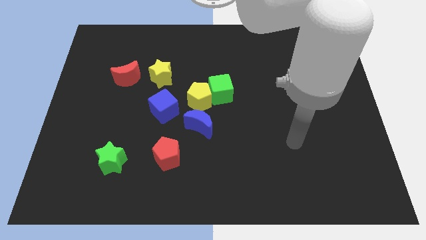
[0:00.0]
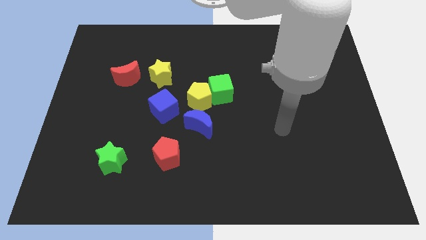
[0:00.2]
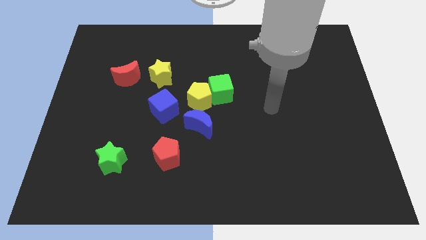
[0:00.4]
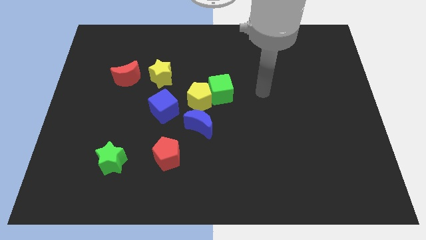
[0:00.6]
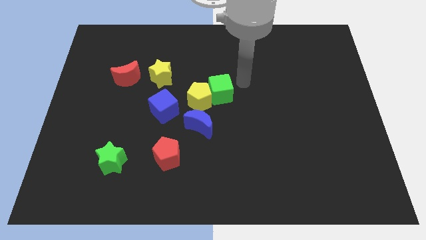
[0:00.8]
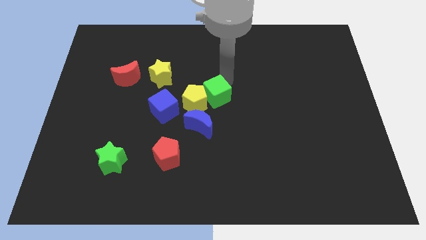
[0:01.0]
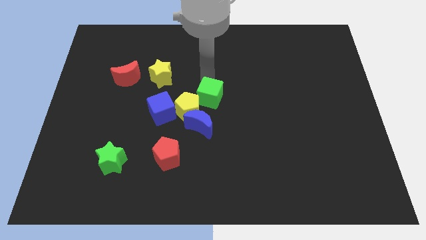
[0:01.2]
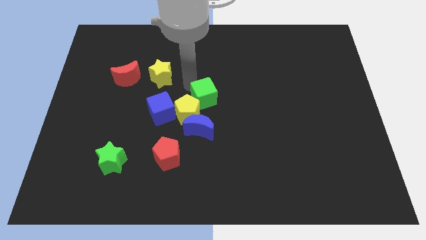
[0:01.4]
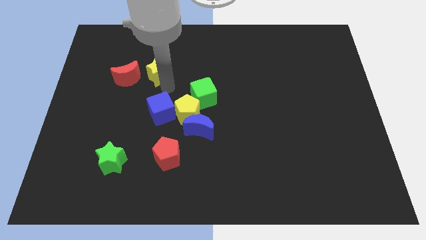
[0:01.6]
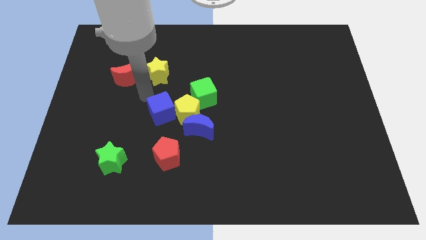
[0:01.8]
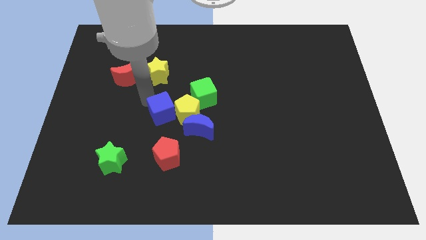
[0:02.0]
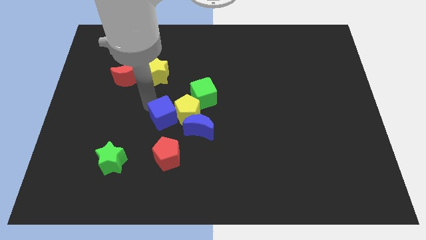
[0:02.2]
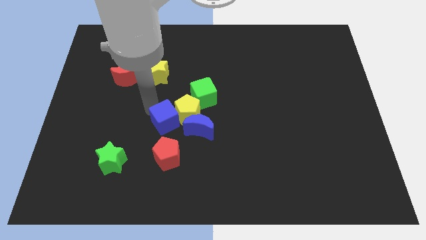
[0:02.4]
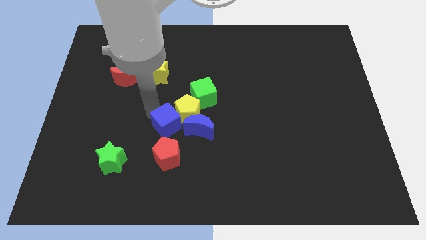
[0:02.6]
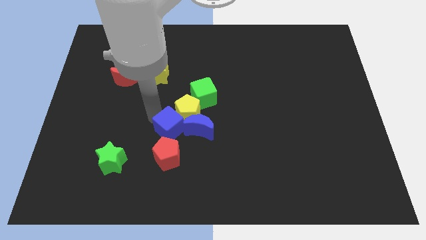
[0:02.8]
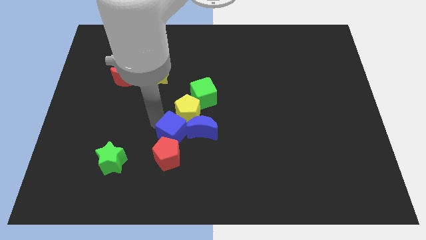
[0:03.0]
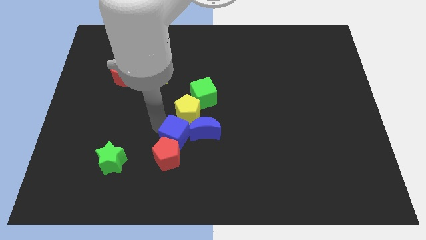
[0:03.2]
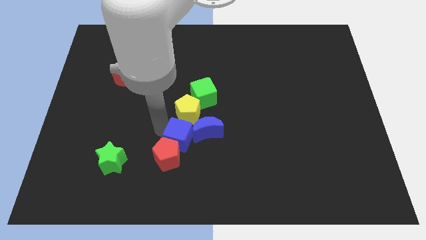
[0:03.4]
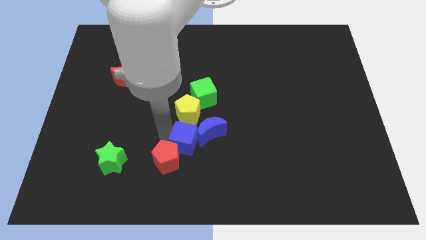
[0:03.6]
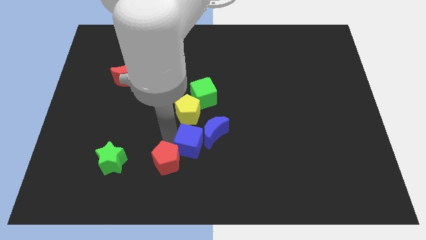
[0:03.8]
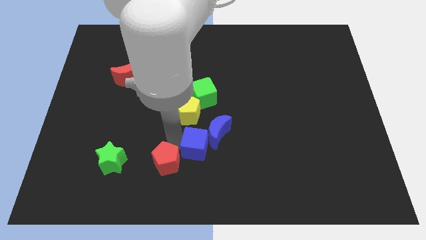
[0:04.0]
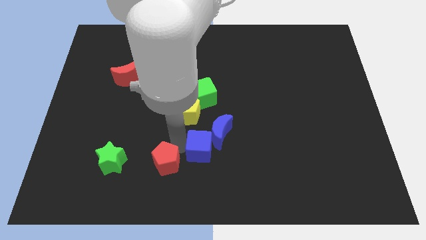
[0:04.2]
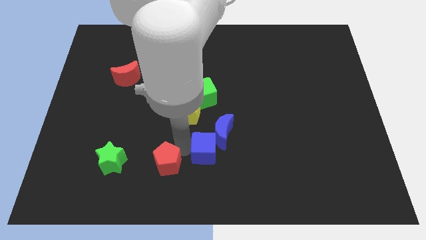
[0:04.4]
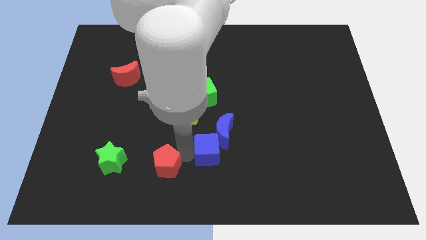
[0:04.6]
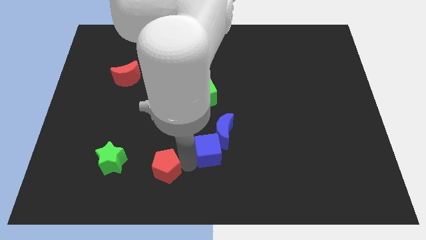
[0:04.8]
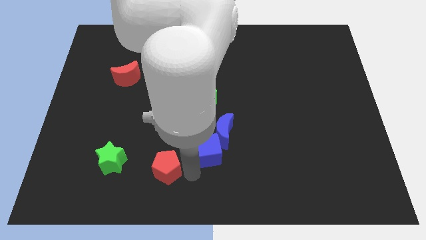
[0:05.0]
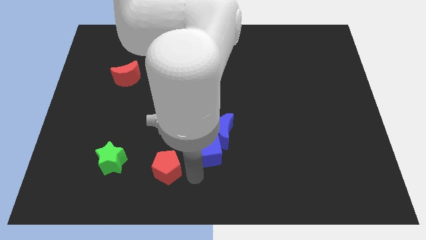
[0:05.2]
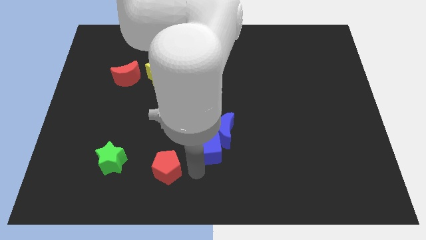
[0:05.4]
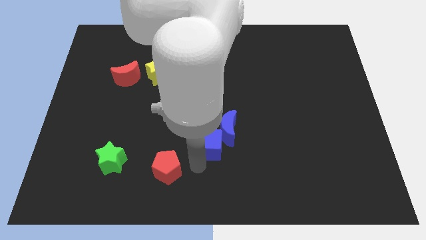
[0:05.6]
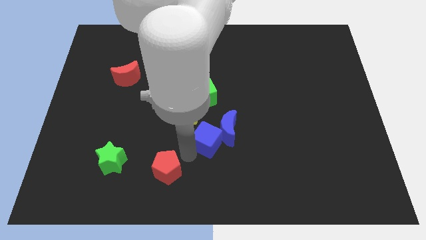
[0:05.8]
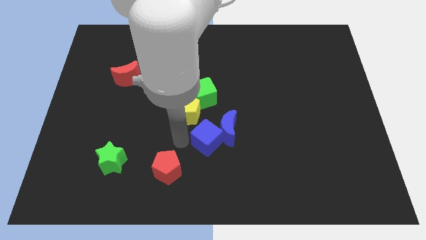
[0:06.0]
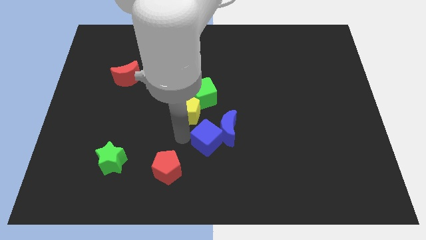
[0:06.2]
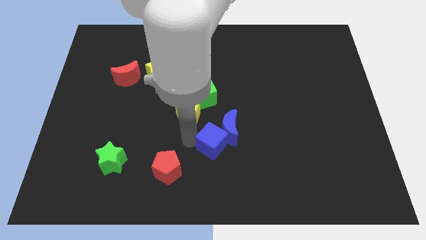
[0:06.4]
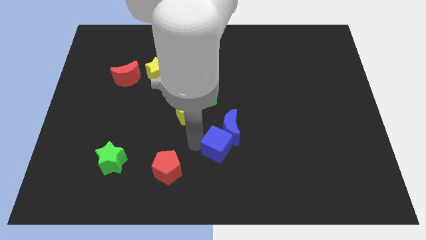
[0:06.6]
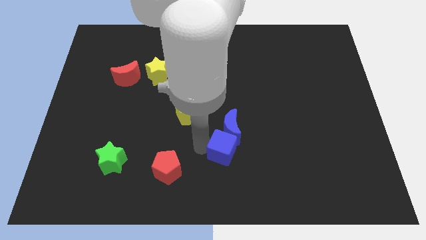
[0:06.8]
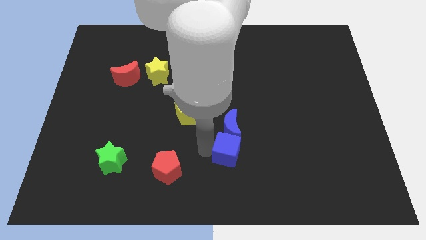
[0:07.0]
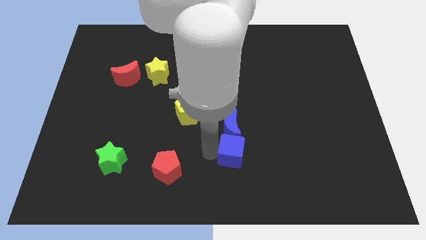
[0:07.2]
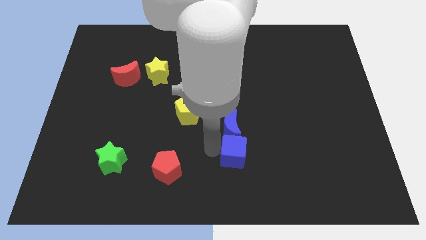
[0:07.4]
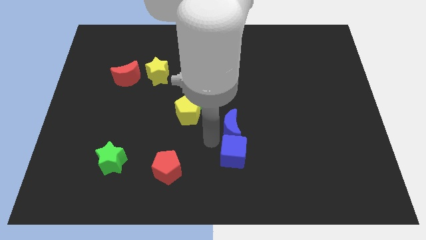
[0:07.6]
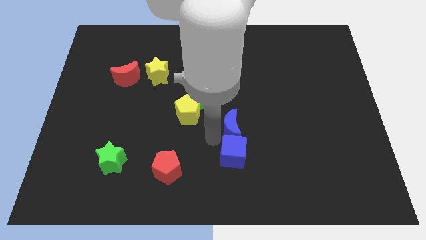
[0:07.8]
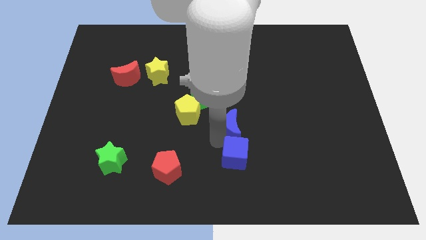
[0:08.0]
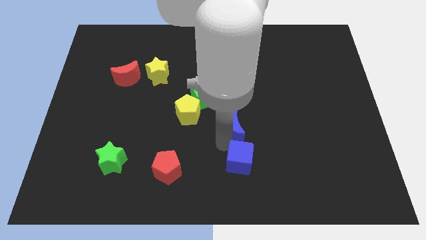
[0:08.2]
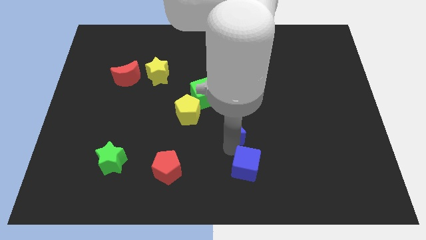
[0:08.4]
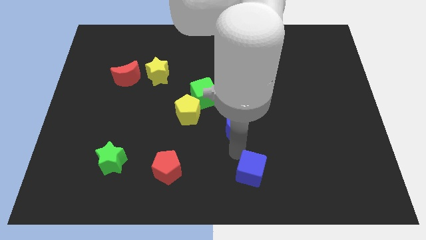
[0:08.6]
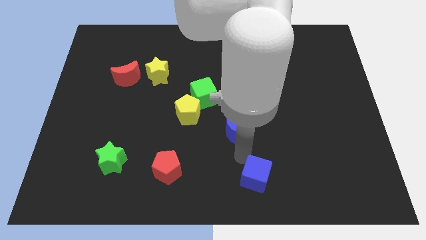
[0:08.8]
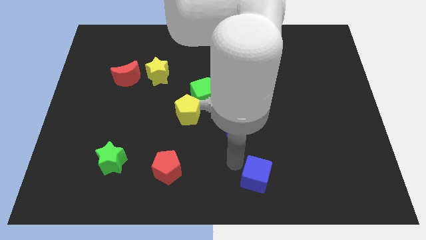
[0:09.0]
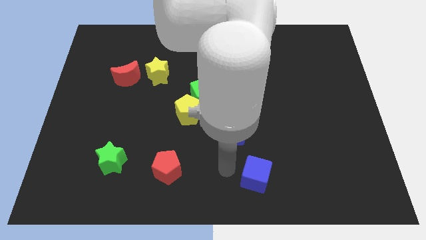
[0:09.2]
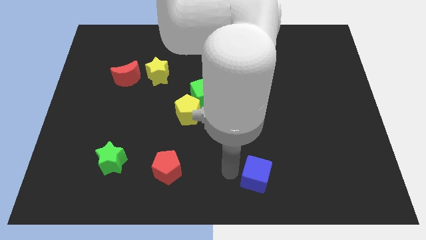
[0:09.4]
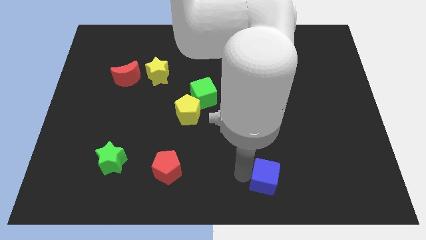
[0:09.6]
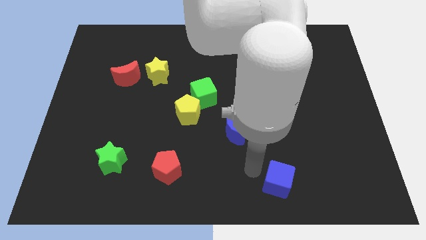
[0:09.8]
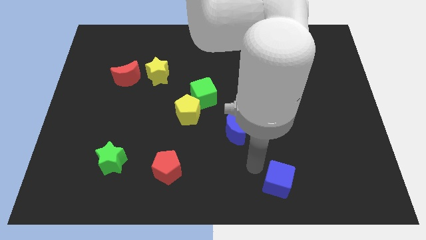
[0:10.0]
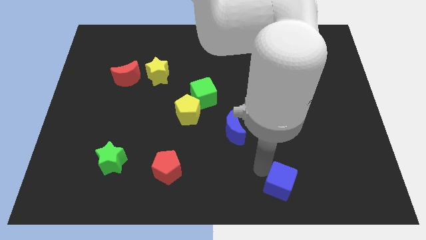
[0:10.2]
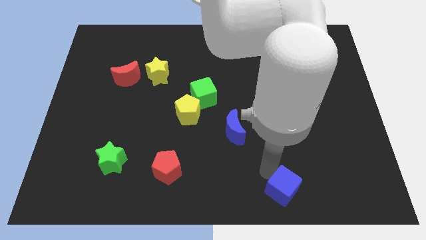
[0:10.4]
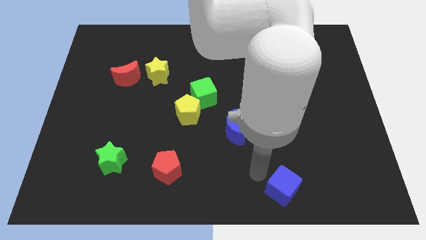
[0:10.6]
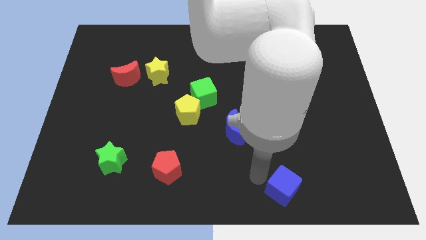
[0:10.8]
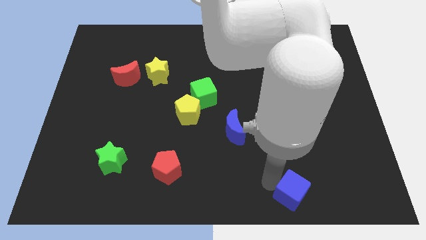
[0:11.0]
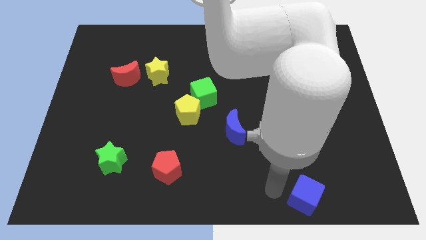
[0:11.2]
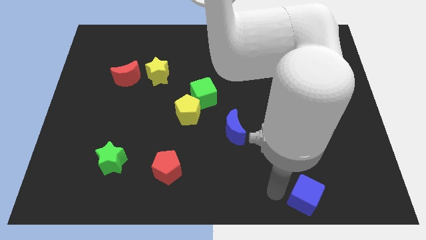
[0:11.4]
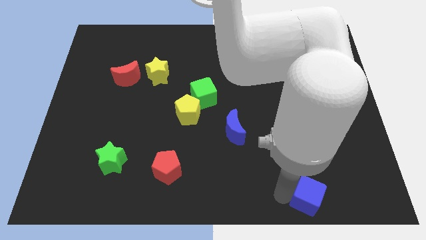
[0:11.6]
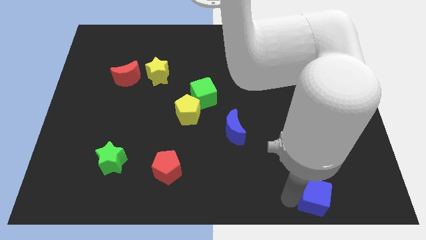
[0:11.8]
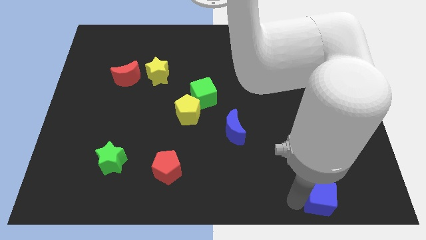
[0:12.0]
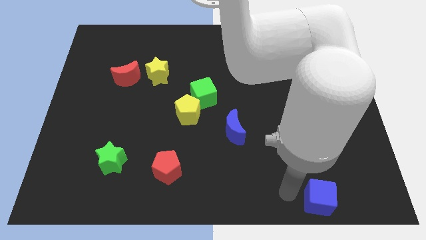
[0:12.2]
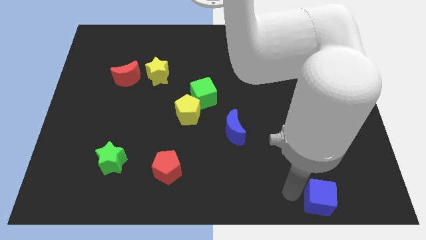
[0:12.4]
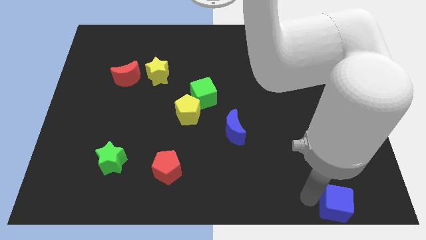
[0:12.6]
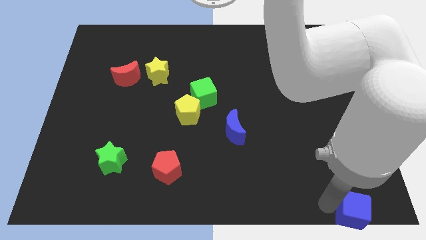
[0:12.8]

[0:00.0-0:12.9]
slide the blue cube to the bottom right

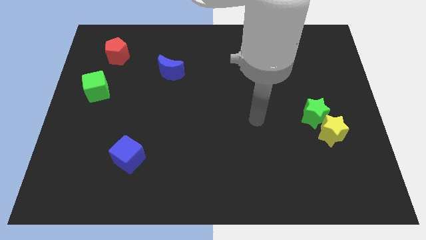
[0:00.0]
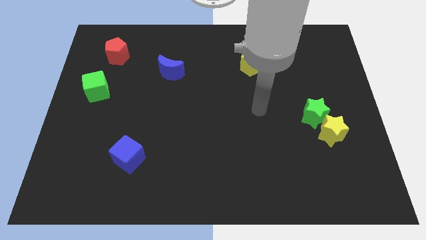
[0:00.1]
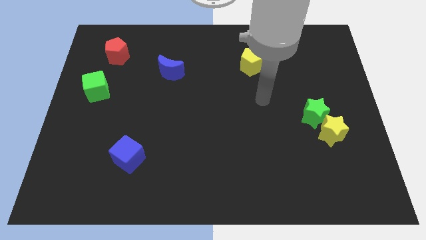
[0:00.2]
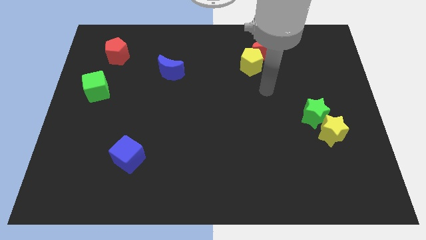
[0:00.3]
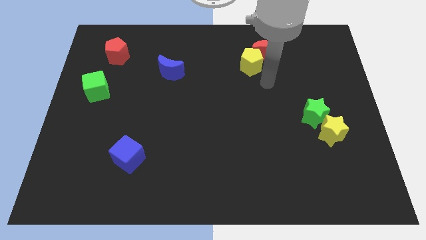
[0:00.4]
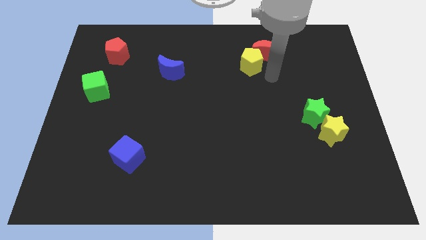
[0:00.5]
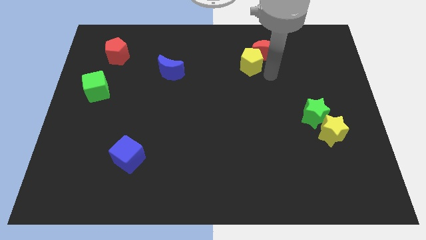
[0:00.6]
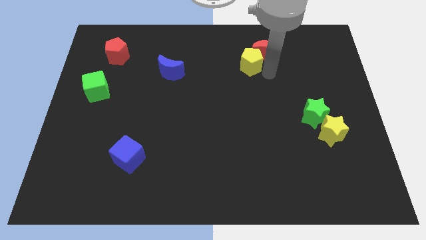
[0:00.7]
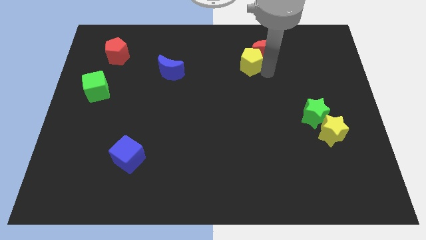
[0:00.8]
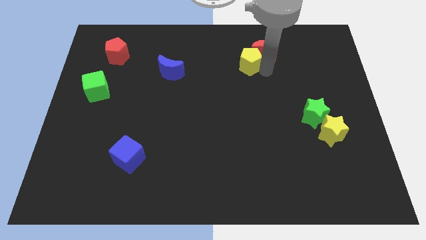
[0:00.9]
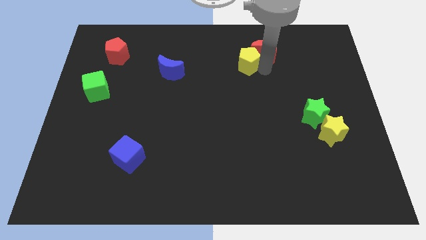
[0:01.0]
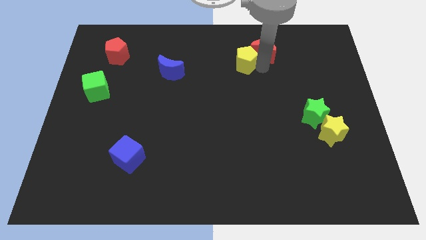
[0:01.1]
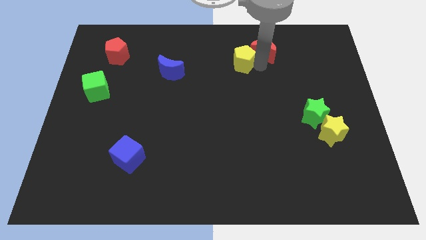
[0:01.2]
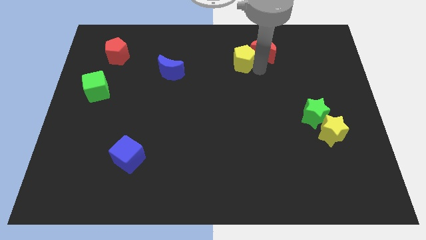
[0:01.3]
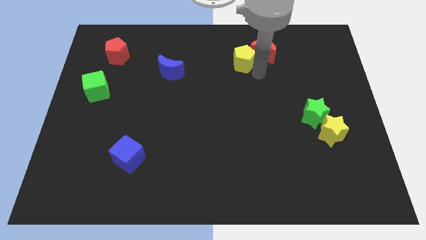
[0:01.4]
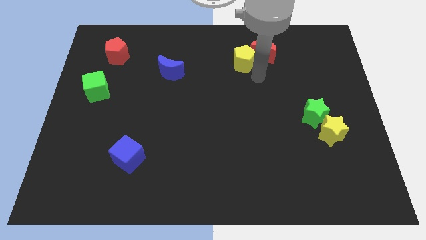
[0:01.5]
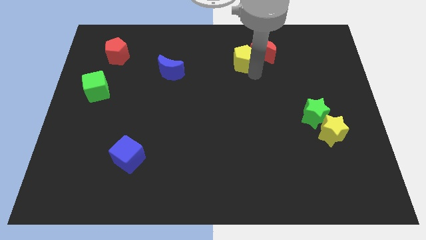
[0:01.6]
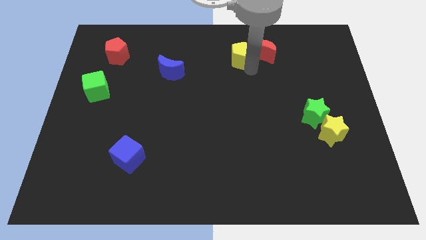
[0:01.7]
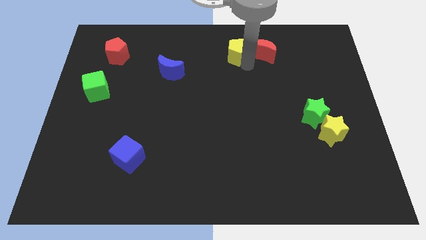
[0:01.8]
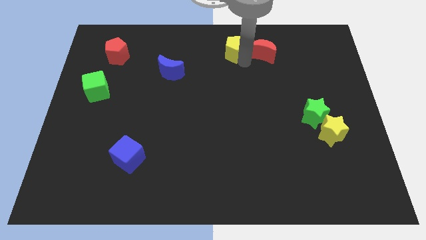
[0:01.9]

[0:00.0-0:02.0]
move the yellow pentagon to the top
